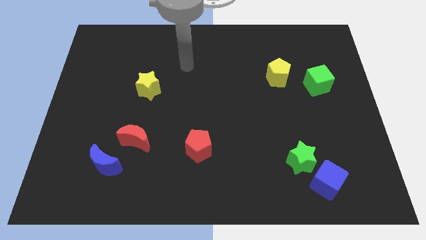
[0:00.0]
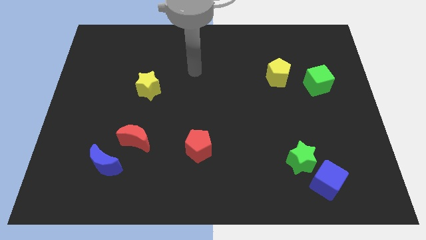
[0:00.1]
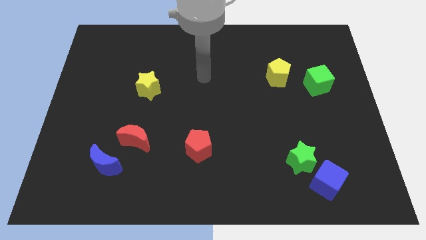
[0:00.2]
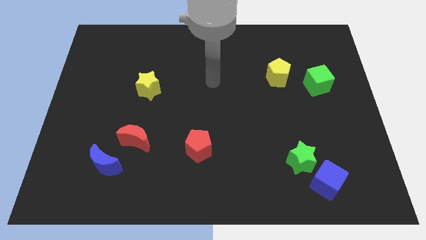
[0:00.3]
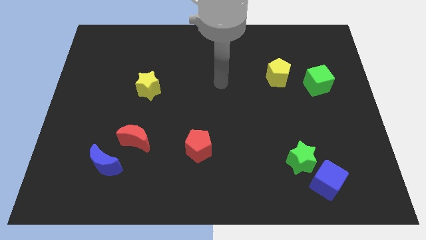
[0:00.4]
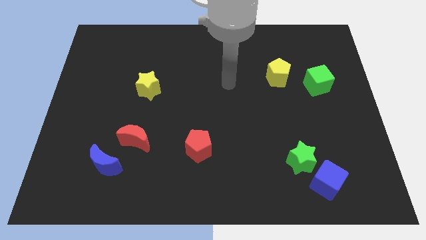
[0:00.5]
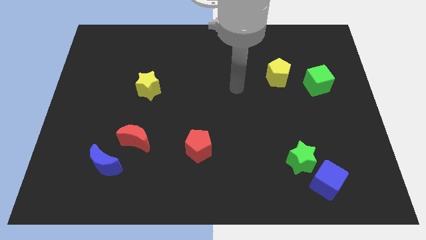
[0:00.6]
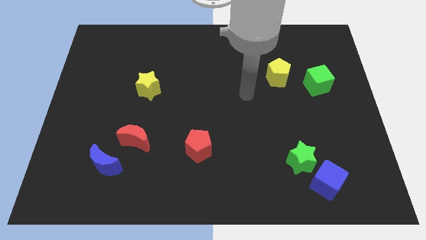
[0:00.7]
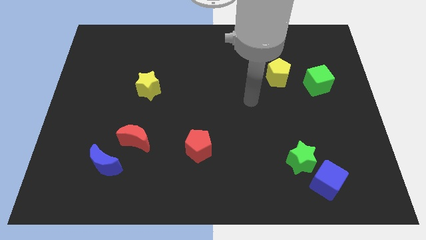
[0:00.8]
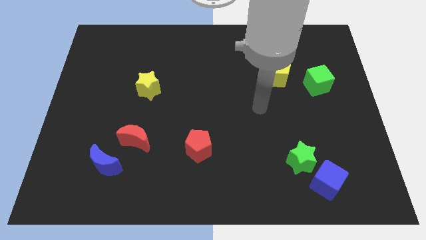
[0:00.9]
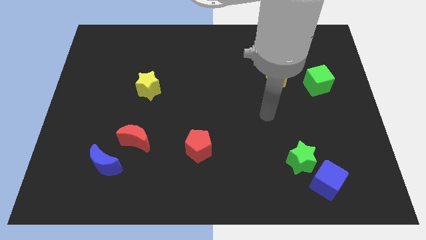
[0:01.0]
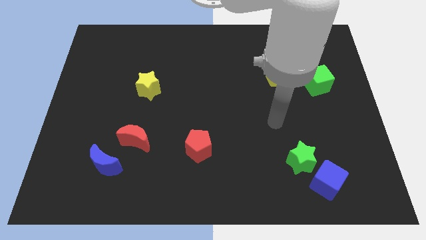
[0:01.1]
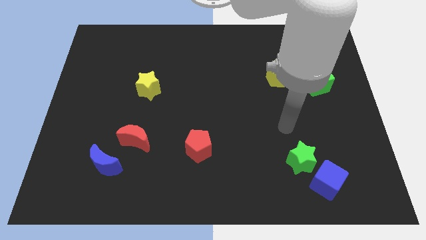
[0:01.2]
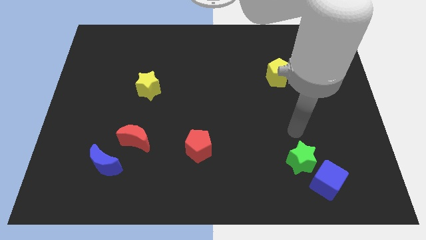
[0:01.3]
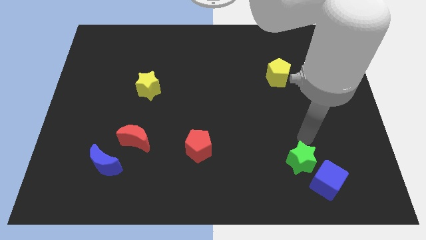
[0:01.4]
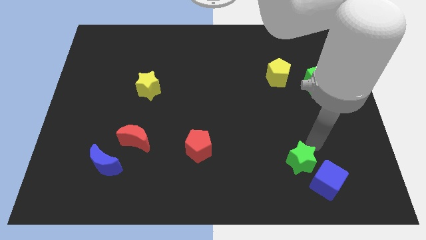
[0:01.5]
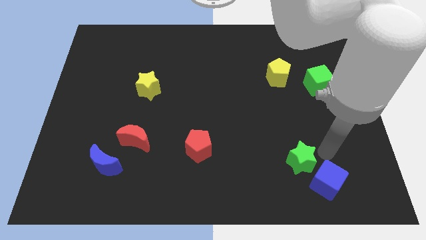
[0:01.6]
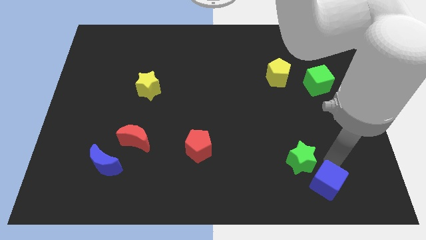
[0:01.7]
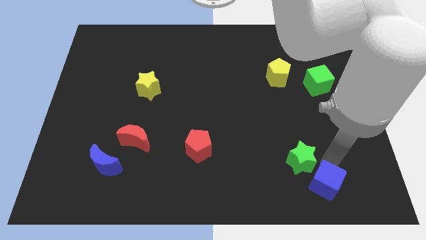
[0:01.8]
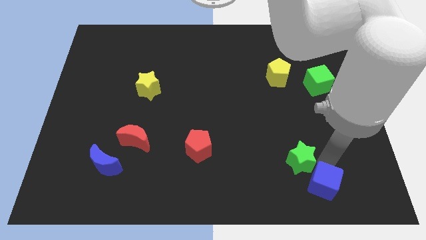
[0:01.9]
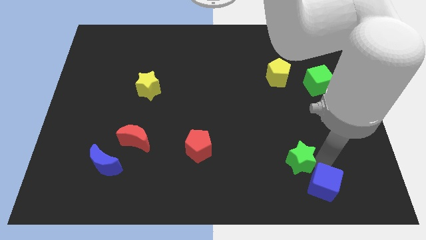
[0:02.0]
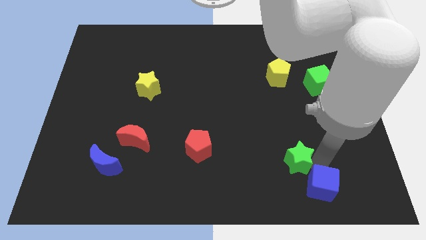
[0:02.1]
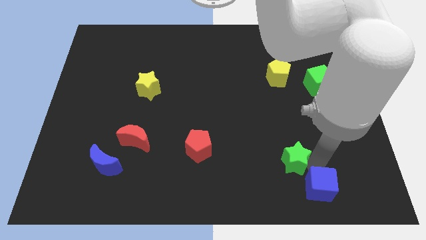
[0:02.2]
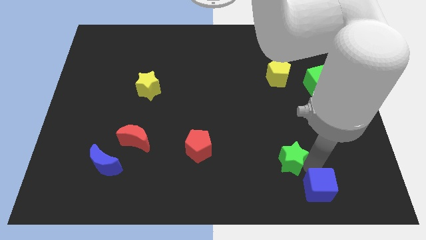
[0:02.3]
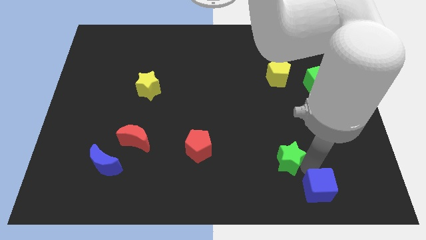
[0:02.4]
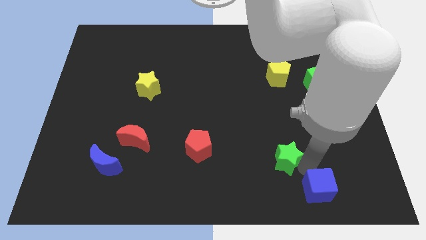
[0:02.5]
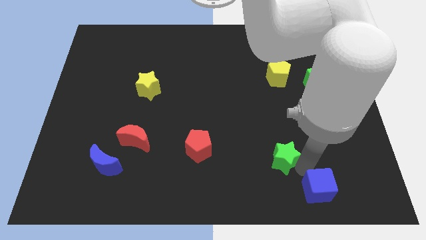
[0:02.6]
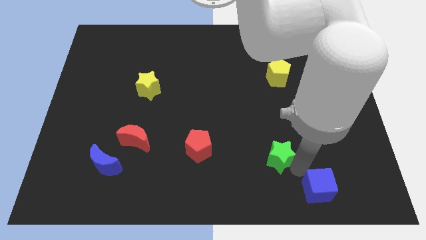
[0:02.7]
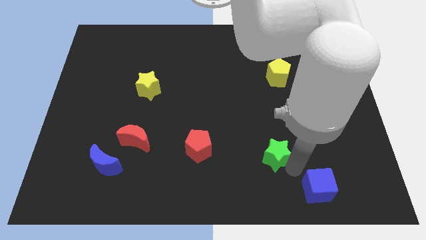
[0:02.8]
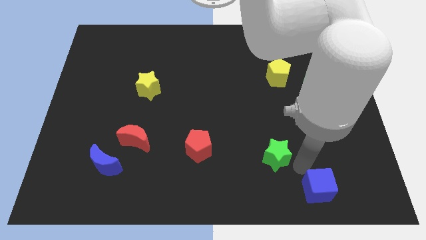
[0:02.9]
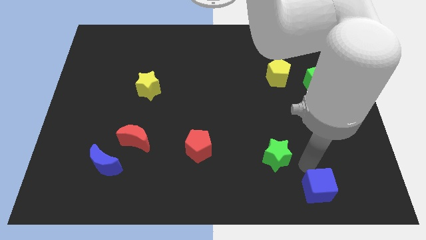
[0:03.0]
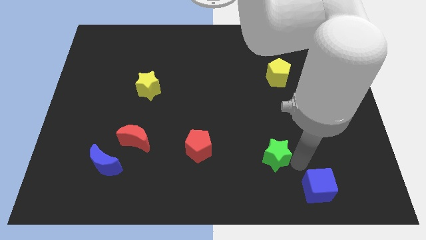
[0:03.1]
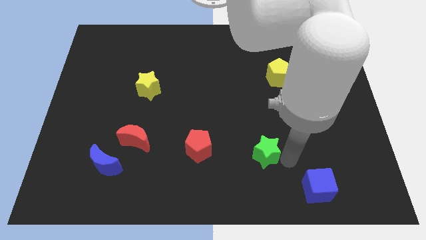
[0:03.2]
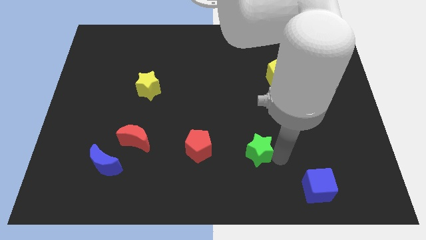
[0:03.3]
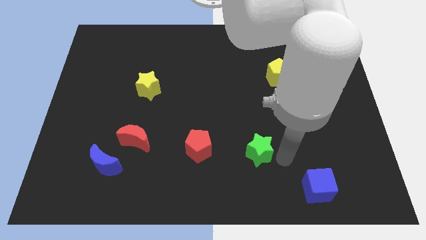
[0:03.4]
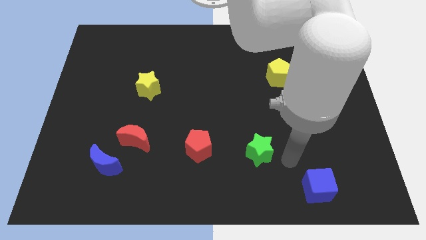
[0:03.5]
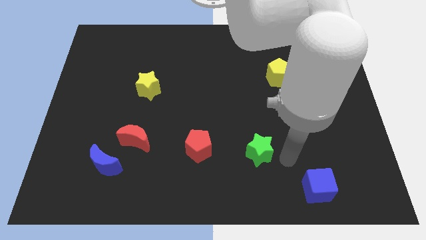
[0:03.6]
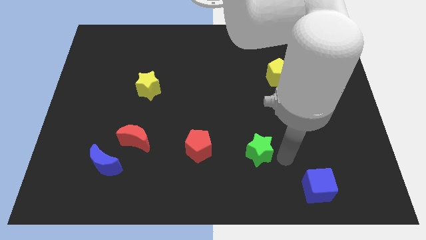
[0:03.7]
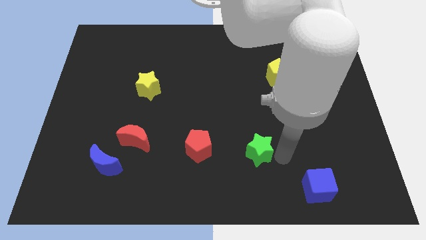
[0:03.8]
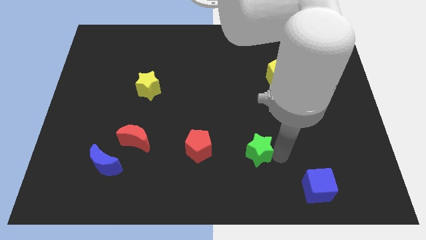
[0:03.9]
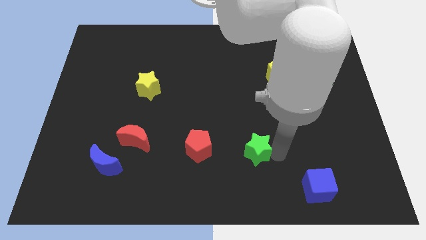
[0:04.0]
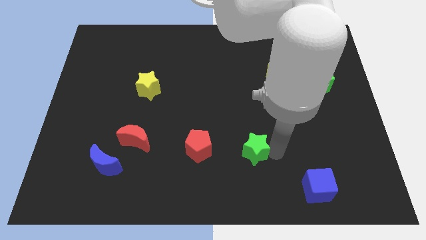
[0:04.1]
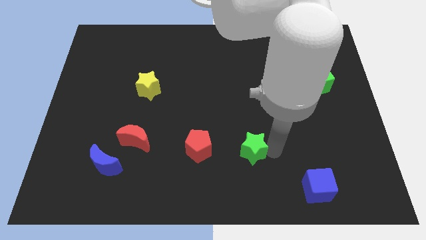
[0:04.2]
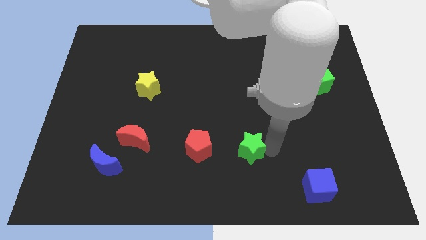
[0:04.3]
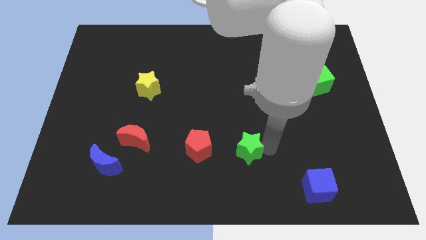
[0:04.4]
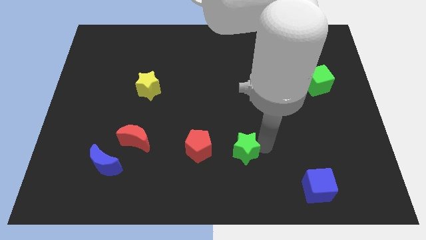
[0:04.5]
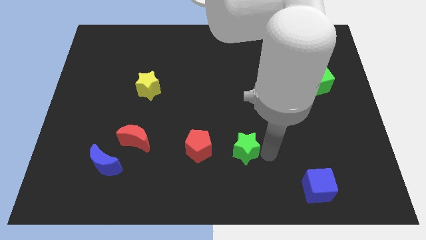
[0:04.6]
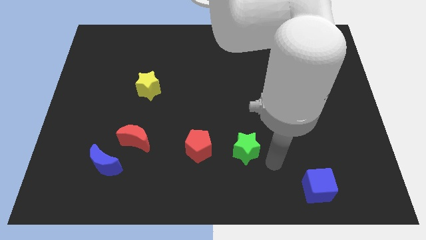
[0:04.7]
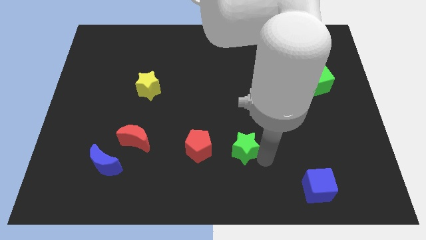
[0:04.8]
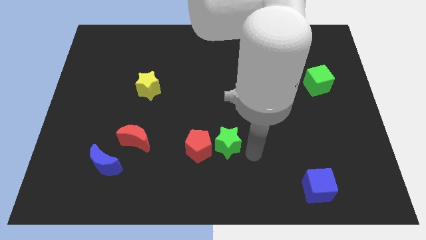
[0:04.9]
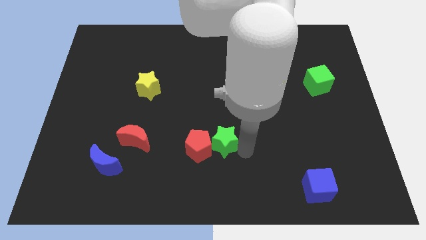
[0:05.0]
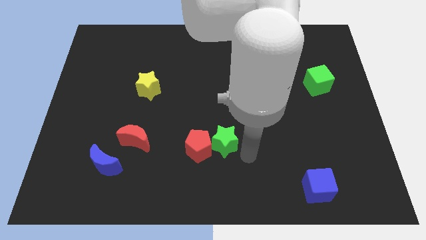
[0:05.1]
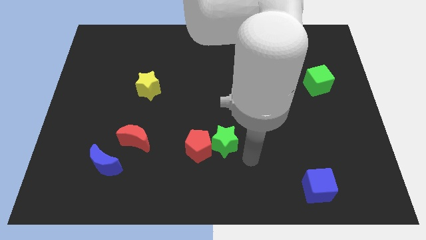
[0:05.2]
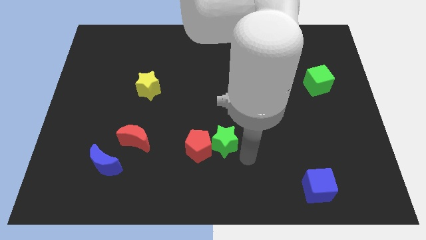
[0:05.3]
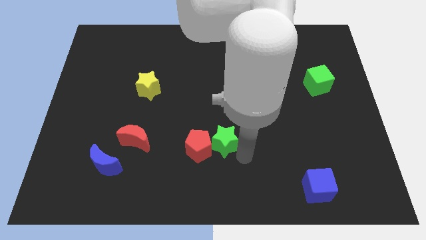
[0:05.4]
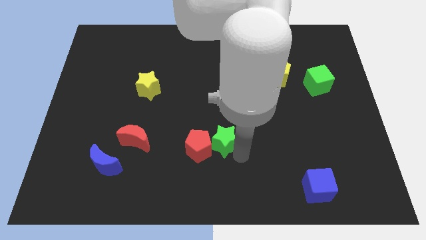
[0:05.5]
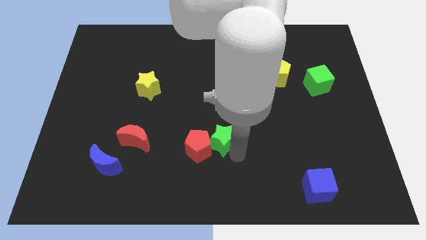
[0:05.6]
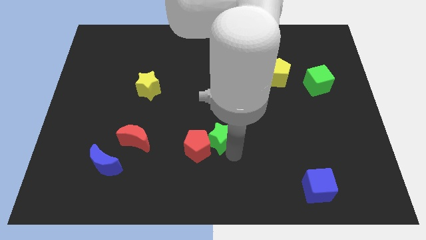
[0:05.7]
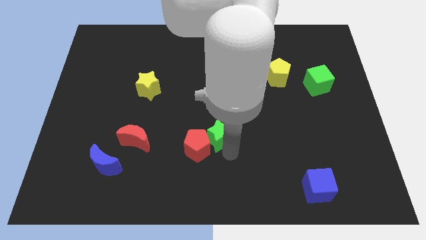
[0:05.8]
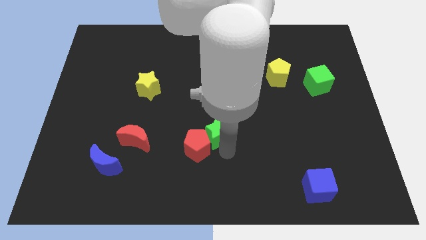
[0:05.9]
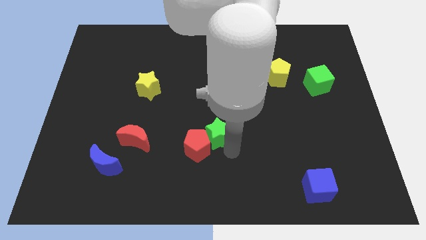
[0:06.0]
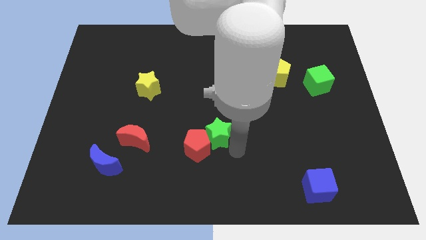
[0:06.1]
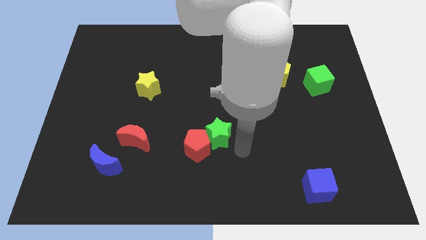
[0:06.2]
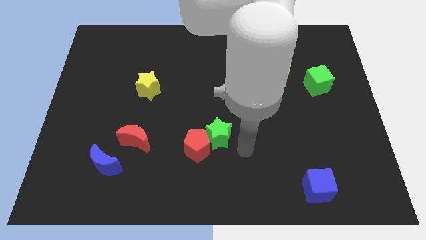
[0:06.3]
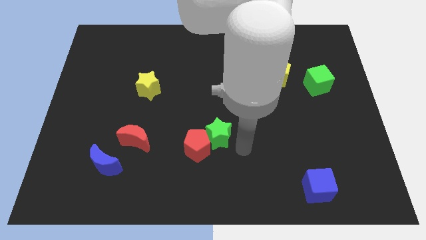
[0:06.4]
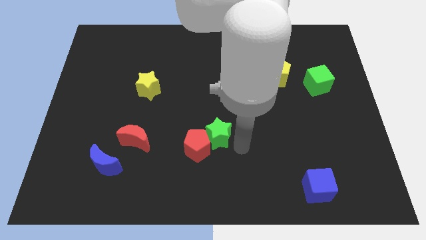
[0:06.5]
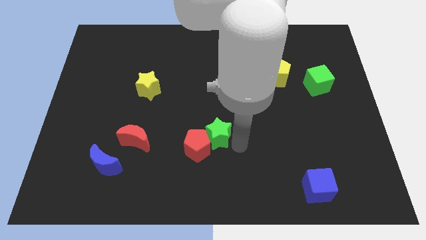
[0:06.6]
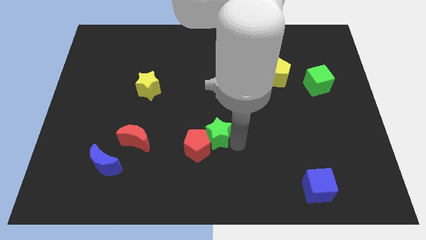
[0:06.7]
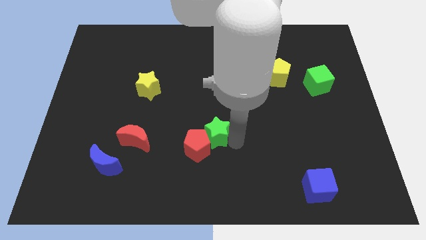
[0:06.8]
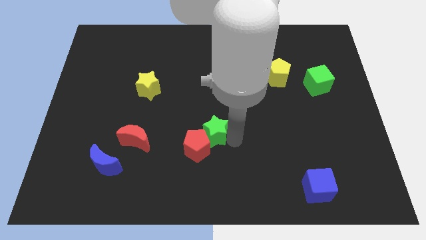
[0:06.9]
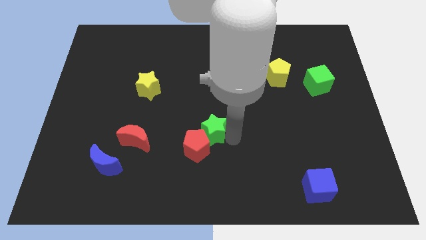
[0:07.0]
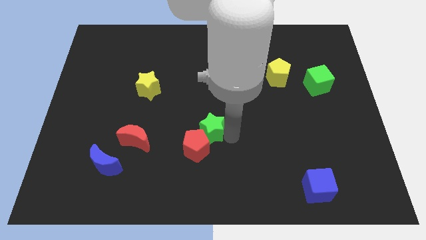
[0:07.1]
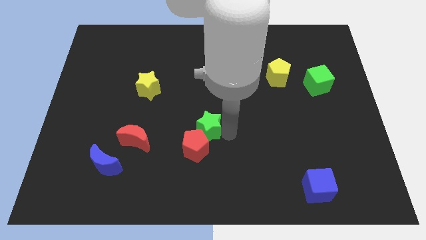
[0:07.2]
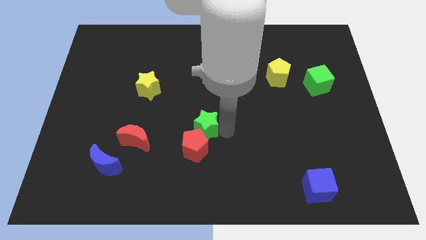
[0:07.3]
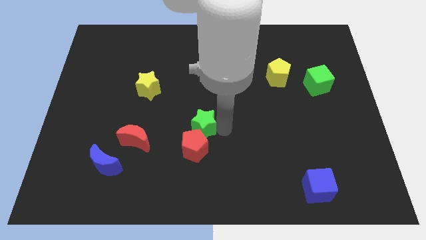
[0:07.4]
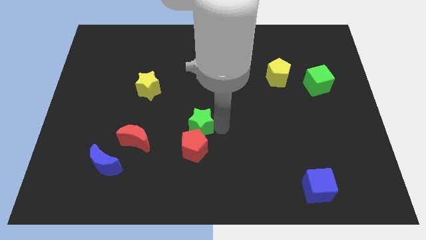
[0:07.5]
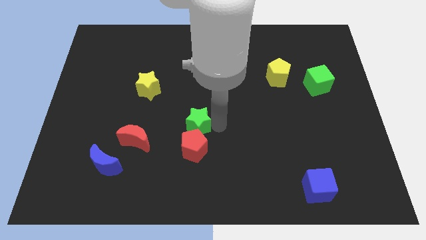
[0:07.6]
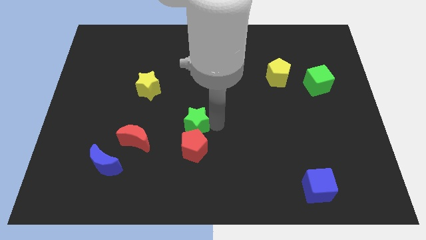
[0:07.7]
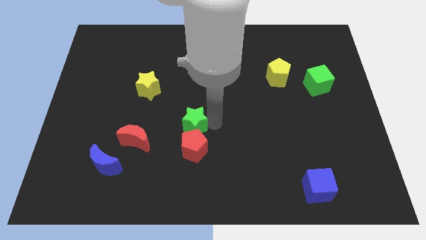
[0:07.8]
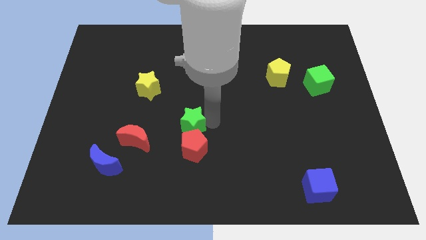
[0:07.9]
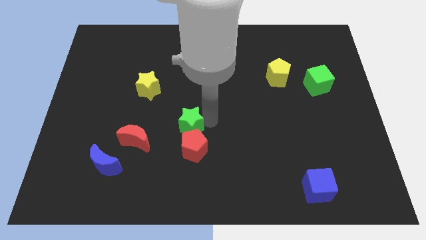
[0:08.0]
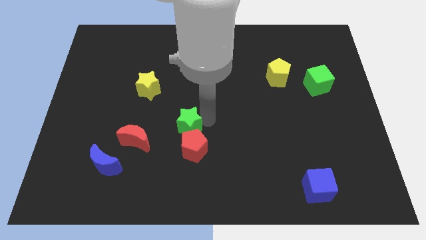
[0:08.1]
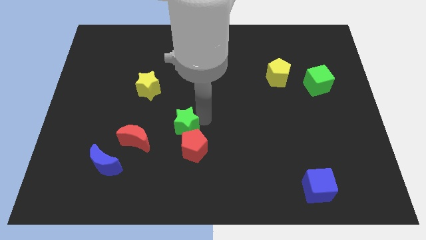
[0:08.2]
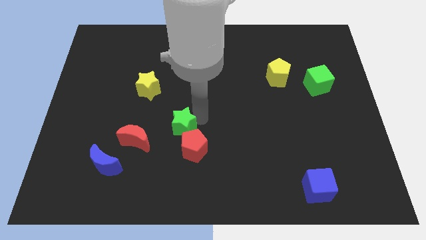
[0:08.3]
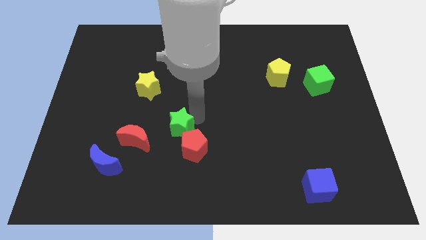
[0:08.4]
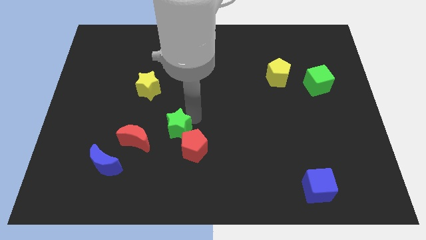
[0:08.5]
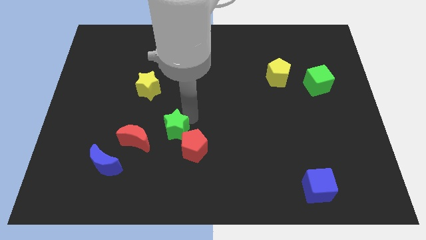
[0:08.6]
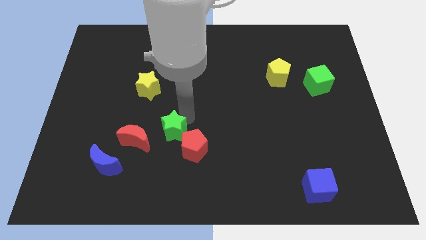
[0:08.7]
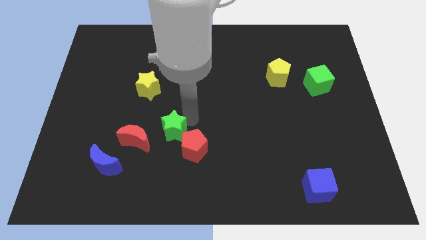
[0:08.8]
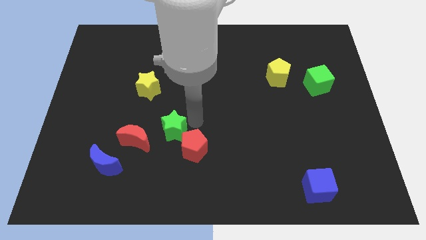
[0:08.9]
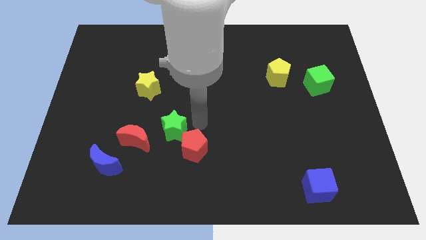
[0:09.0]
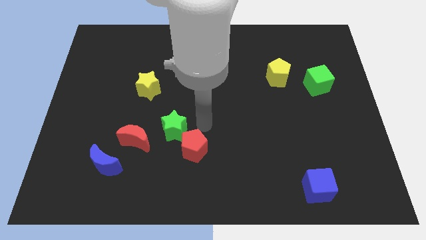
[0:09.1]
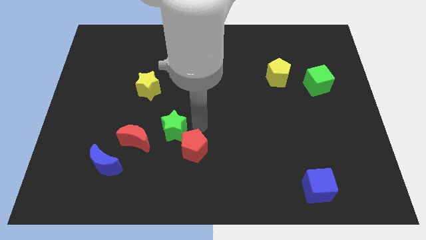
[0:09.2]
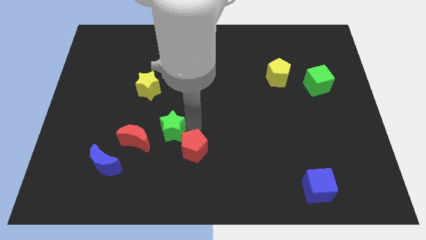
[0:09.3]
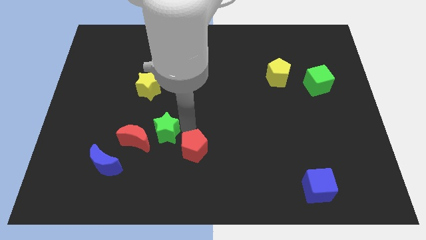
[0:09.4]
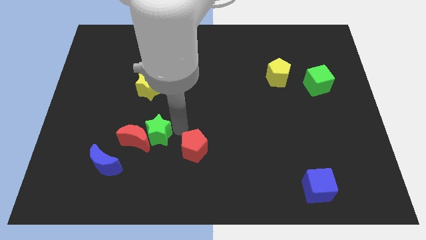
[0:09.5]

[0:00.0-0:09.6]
move the green star towards the red moon
